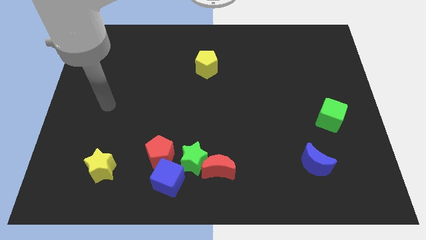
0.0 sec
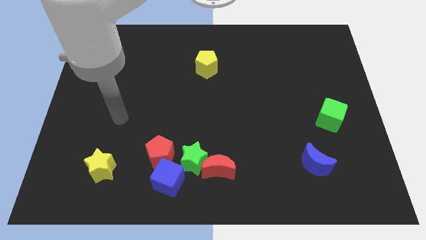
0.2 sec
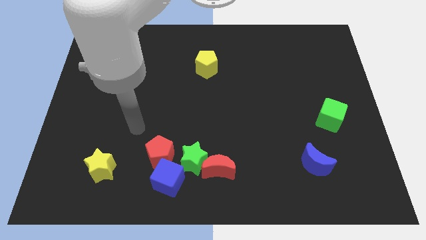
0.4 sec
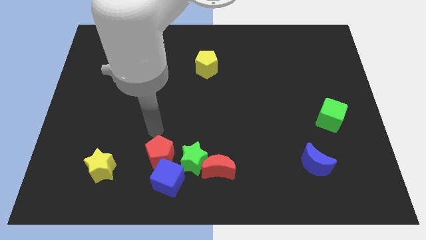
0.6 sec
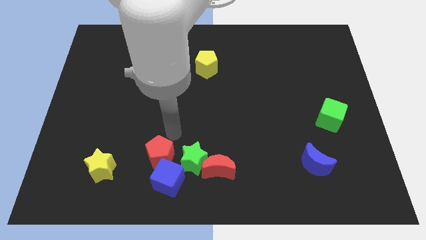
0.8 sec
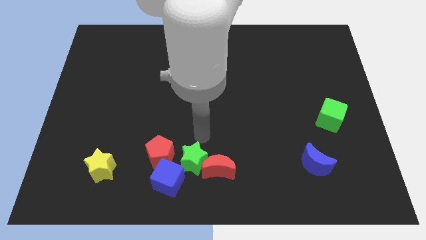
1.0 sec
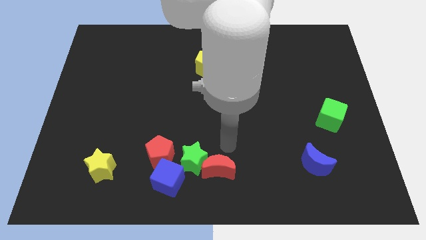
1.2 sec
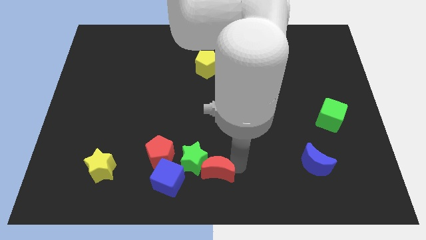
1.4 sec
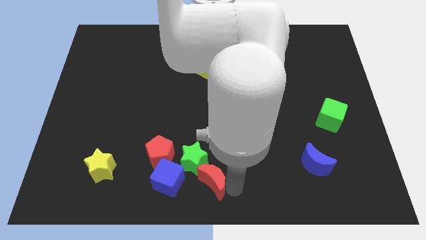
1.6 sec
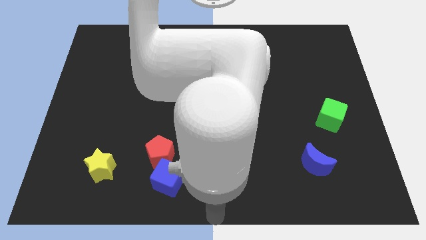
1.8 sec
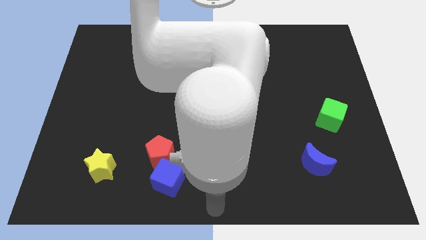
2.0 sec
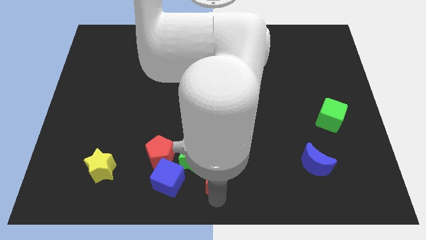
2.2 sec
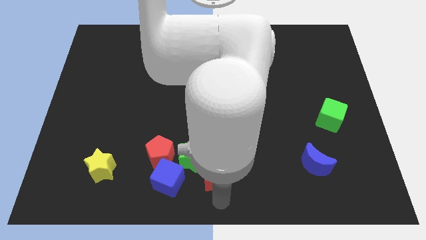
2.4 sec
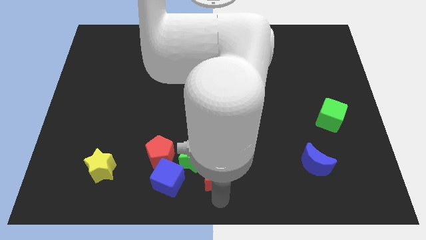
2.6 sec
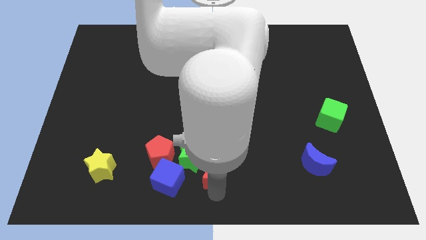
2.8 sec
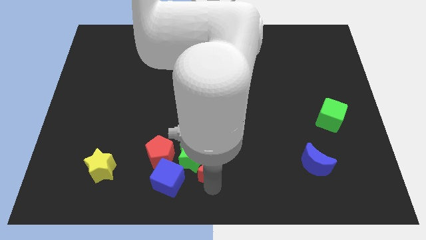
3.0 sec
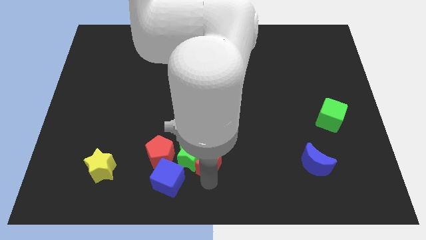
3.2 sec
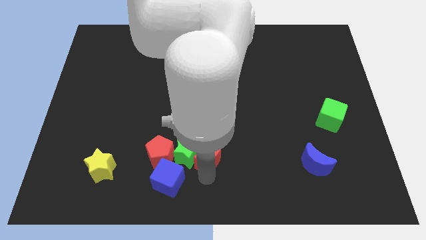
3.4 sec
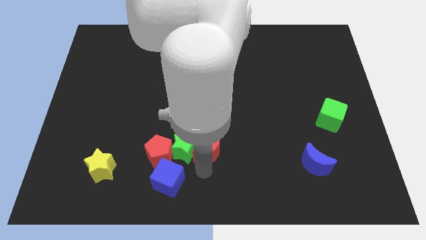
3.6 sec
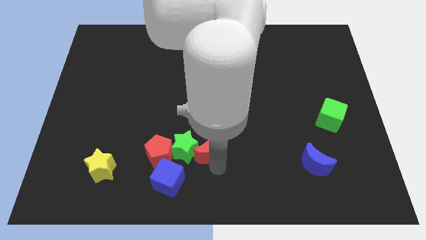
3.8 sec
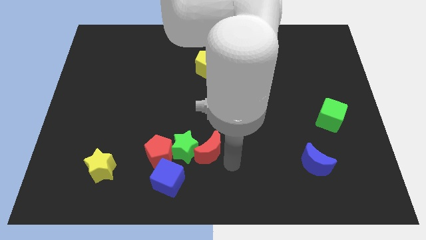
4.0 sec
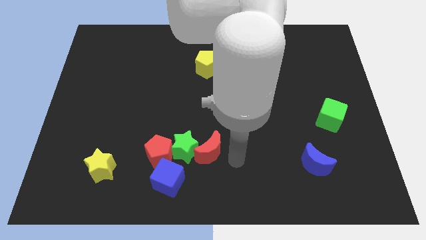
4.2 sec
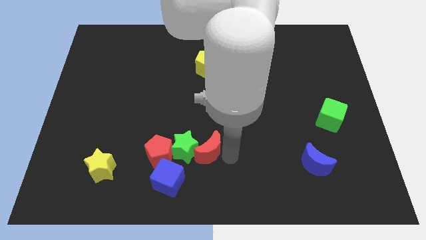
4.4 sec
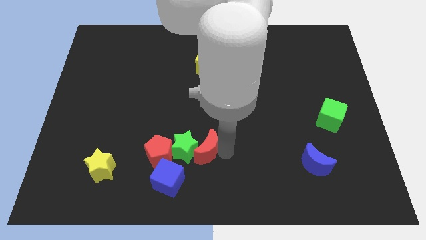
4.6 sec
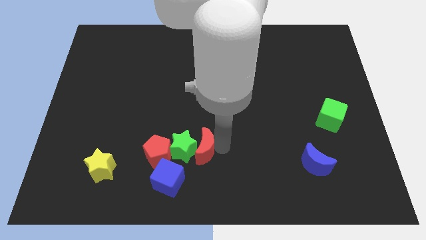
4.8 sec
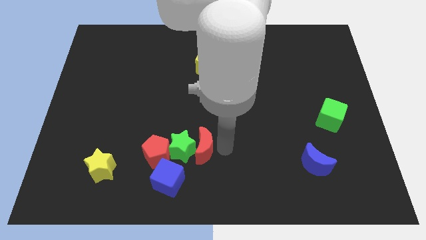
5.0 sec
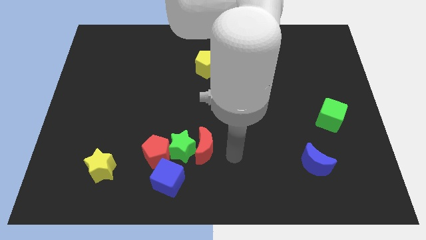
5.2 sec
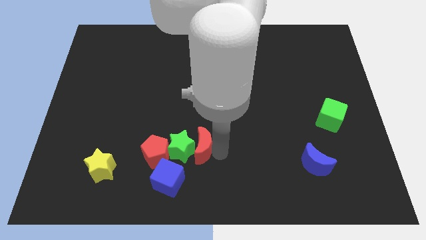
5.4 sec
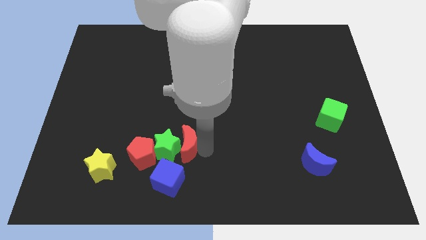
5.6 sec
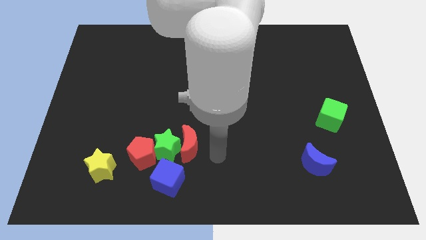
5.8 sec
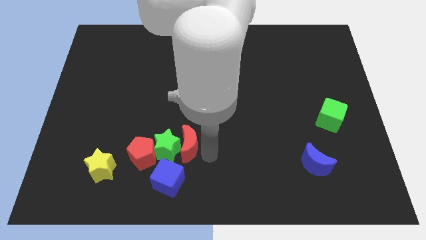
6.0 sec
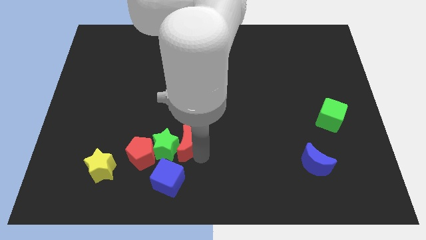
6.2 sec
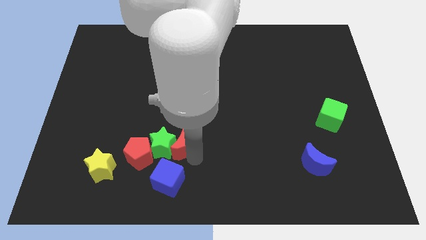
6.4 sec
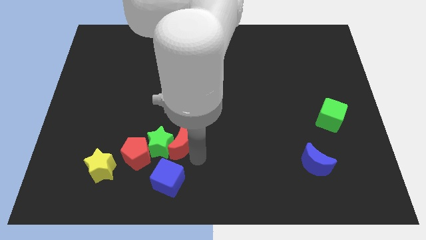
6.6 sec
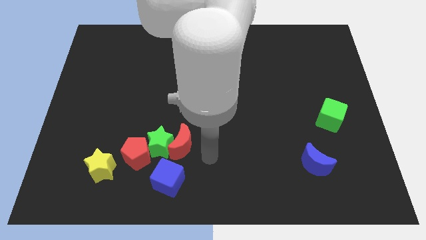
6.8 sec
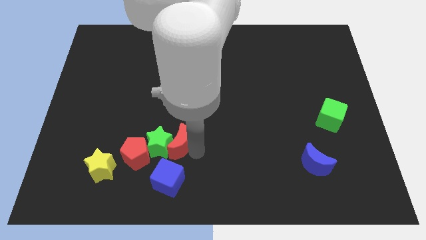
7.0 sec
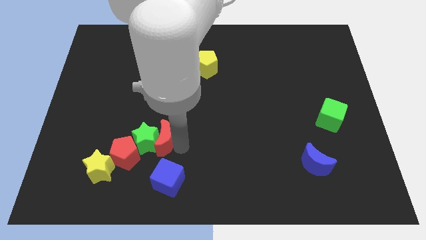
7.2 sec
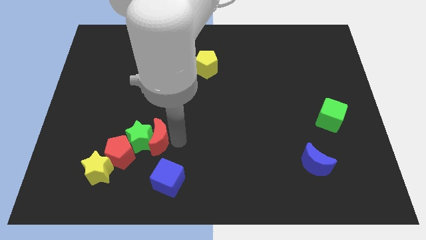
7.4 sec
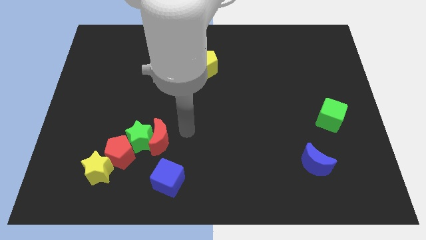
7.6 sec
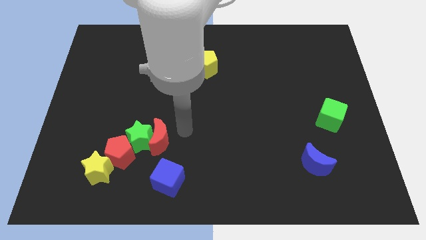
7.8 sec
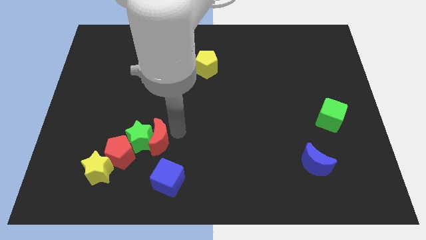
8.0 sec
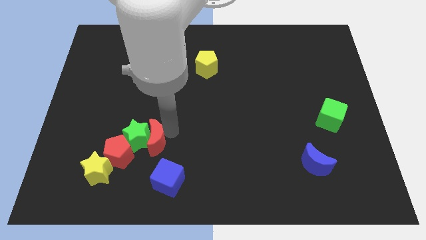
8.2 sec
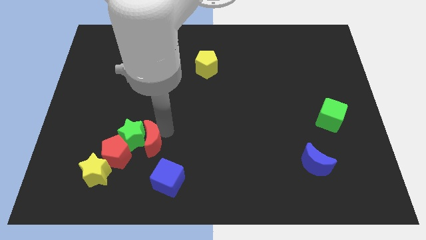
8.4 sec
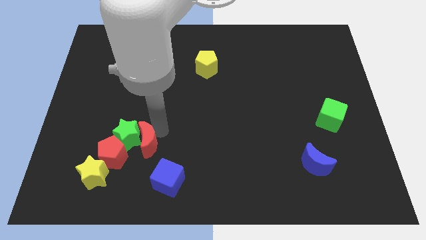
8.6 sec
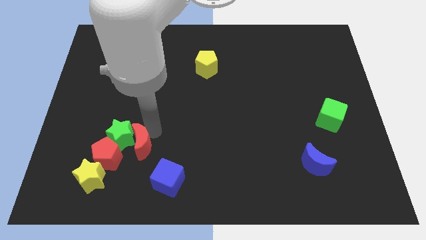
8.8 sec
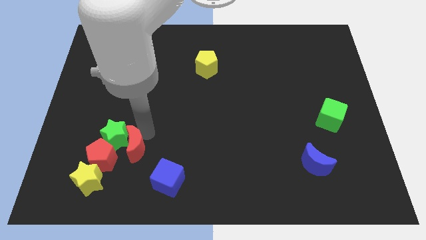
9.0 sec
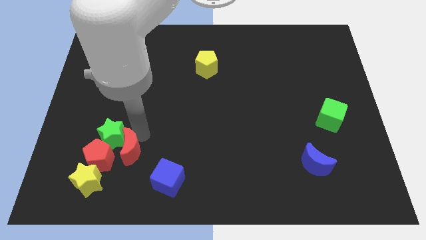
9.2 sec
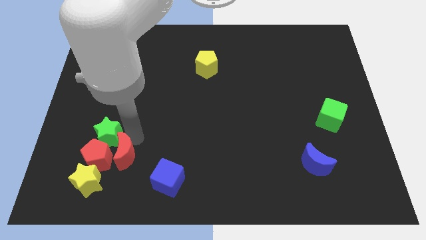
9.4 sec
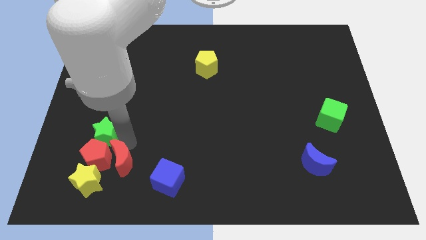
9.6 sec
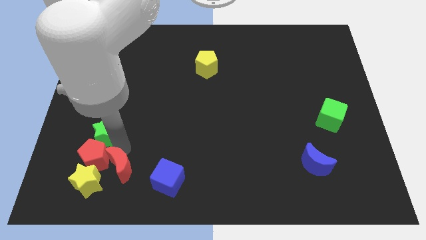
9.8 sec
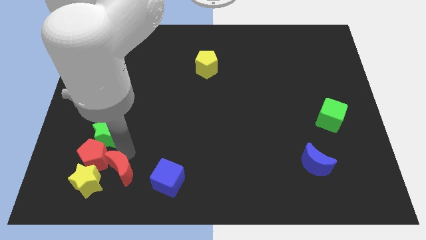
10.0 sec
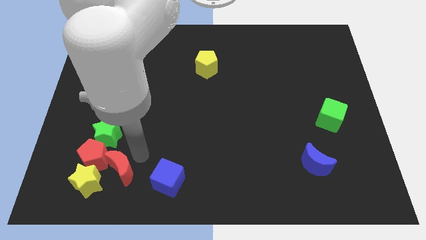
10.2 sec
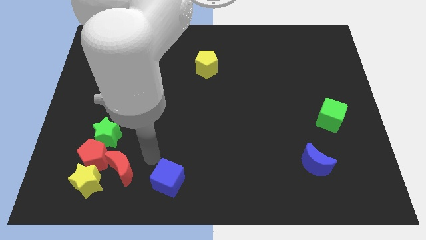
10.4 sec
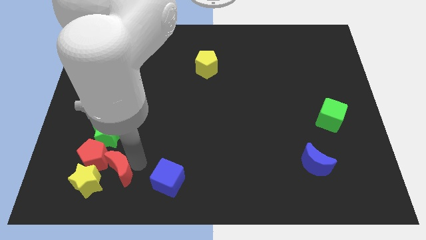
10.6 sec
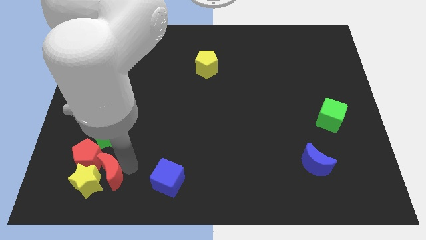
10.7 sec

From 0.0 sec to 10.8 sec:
slide the red moon close to the yellow star

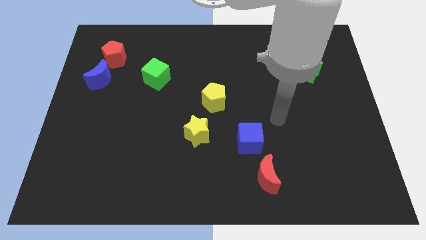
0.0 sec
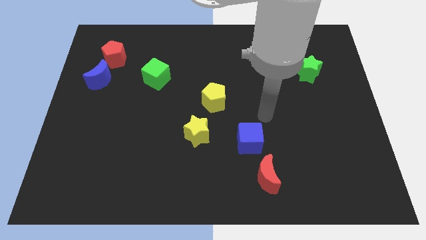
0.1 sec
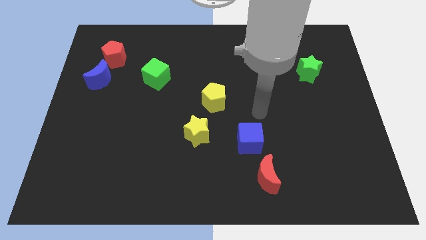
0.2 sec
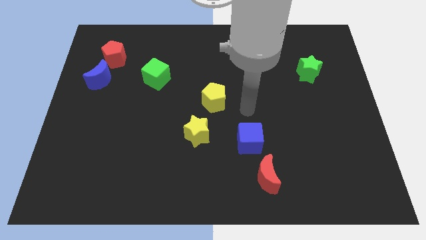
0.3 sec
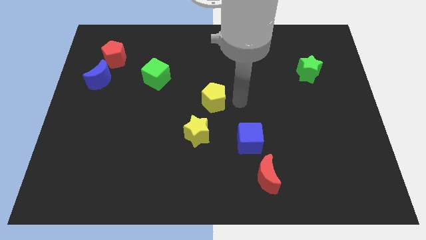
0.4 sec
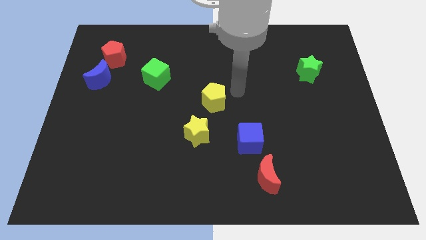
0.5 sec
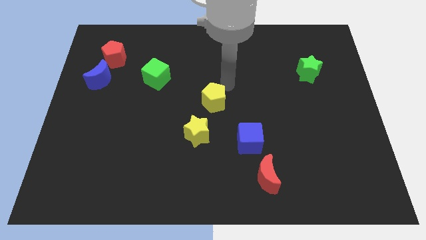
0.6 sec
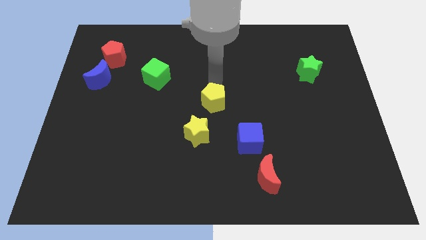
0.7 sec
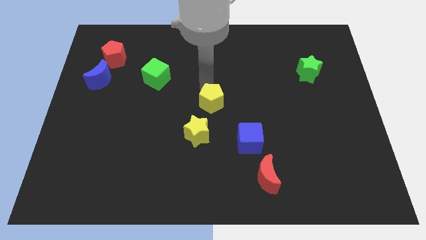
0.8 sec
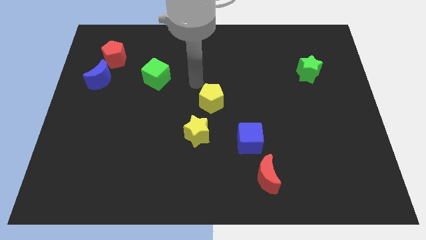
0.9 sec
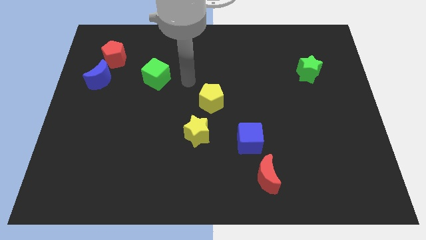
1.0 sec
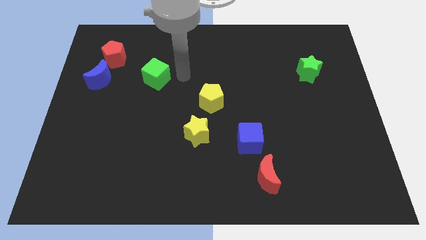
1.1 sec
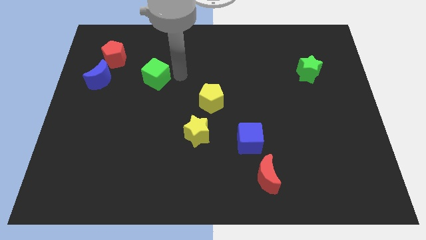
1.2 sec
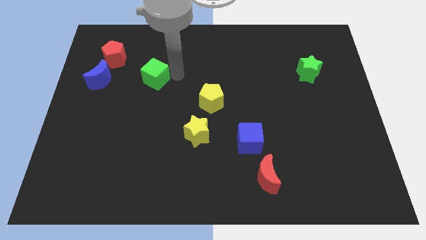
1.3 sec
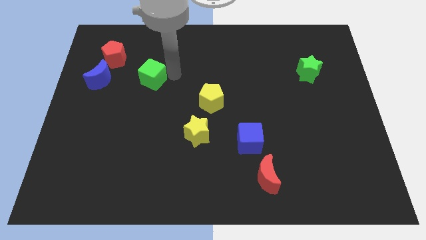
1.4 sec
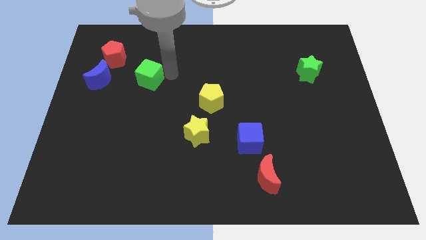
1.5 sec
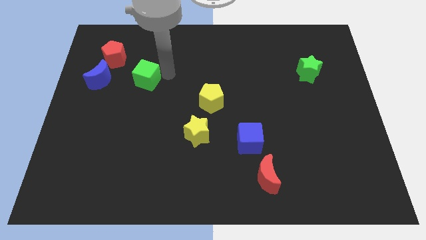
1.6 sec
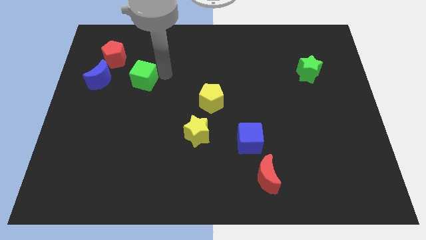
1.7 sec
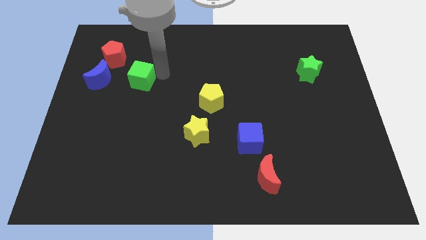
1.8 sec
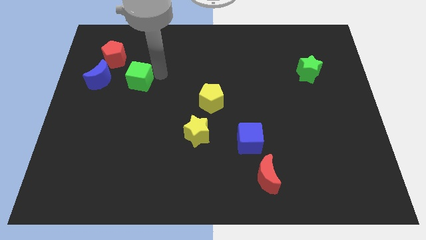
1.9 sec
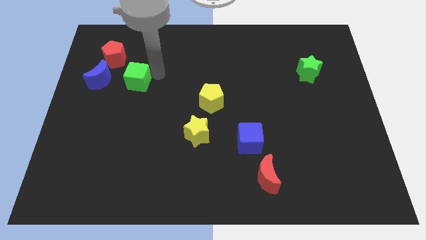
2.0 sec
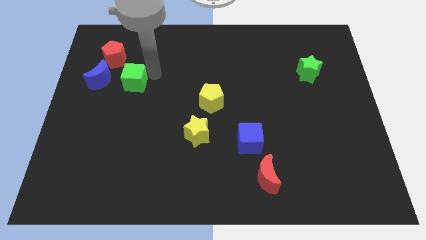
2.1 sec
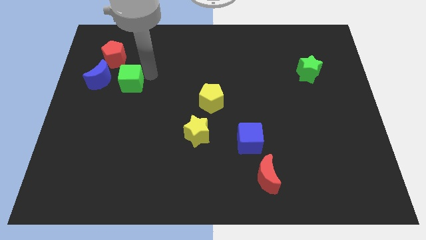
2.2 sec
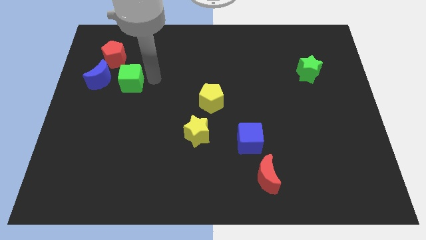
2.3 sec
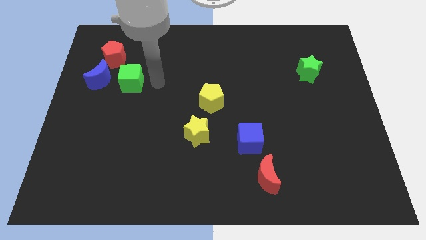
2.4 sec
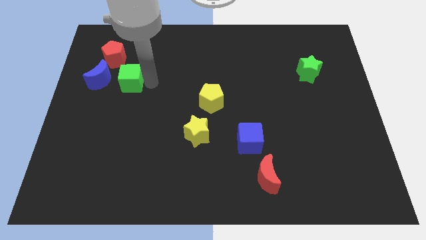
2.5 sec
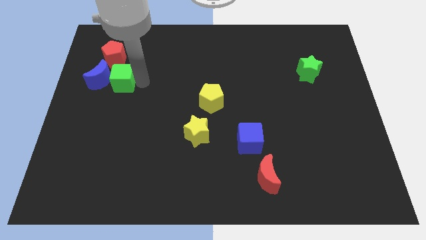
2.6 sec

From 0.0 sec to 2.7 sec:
slide the green cube towards the blue moon
